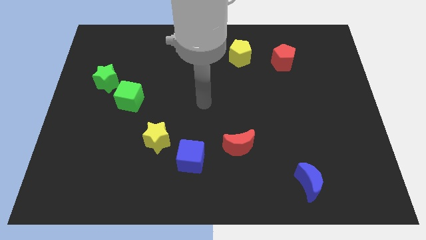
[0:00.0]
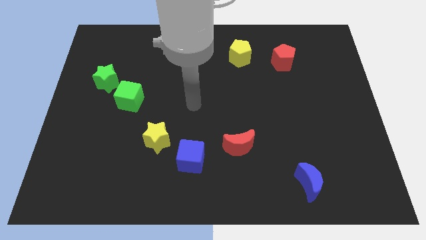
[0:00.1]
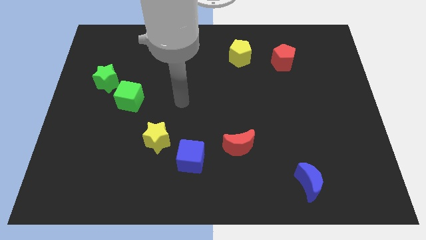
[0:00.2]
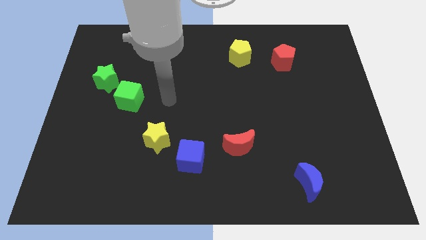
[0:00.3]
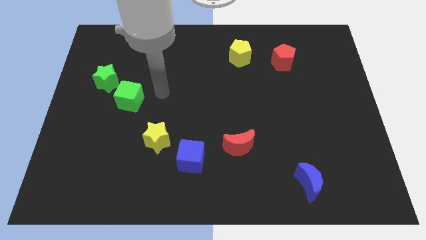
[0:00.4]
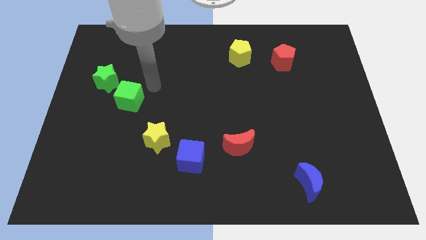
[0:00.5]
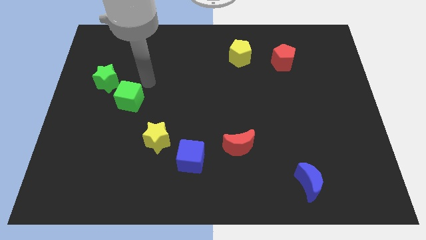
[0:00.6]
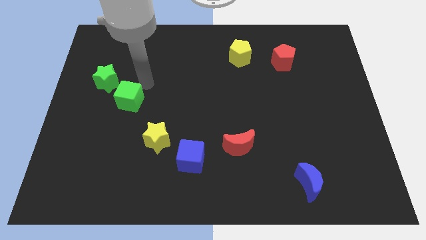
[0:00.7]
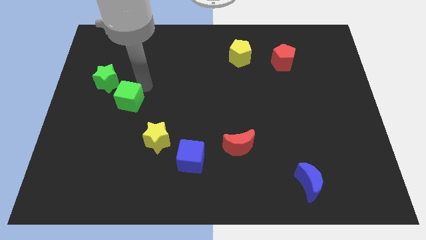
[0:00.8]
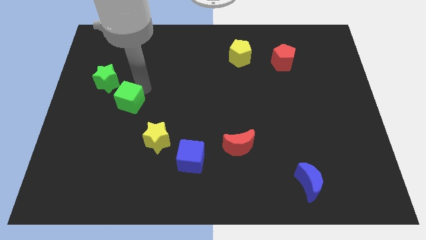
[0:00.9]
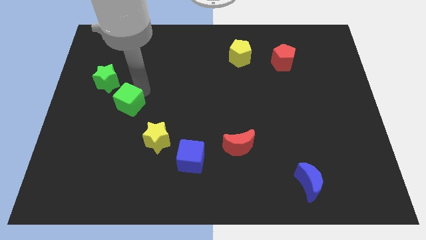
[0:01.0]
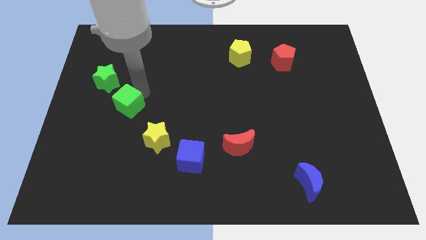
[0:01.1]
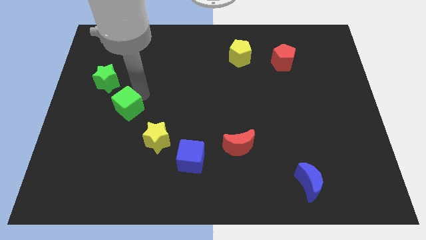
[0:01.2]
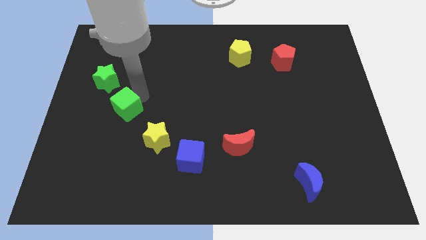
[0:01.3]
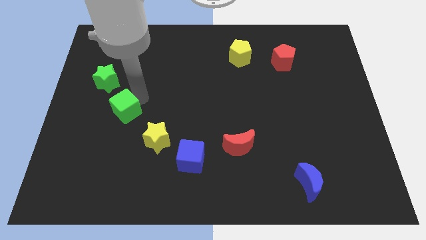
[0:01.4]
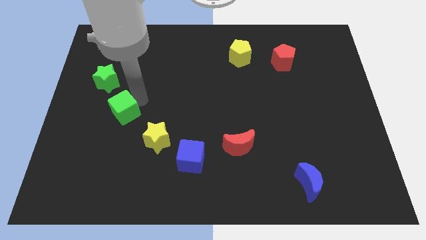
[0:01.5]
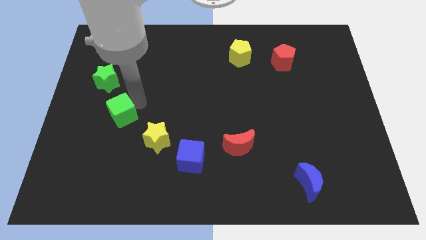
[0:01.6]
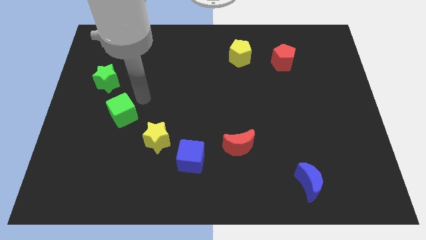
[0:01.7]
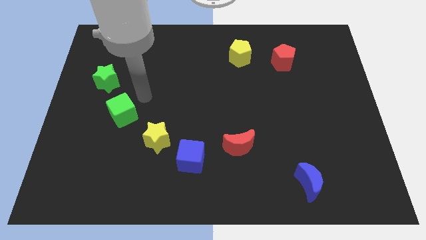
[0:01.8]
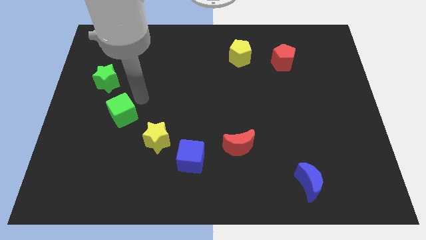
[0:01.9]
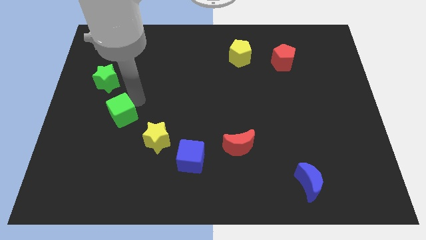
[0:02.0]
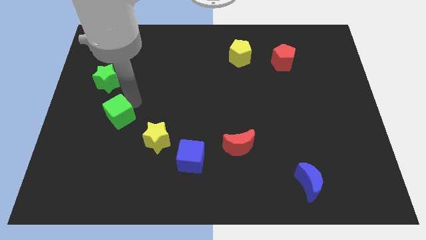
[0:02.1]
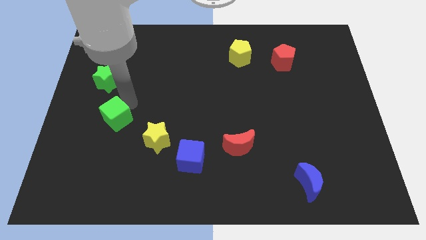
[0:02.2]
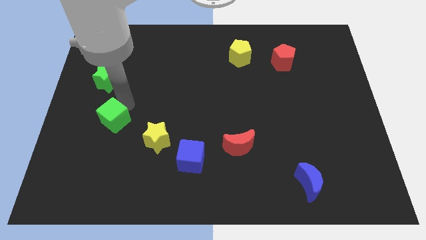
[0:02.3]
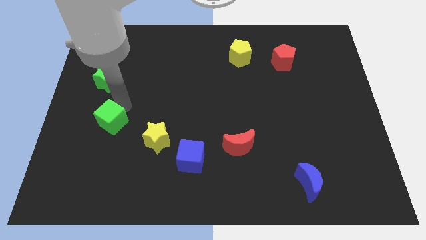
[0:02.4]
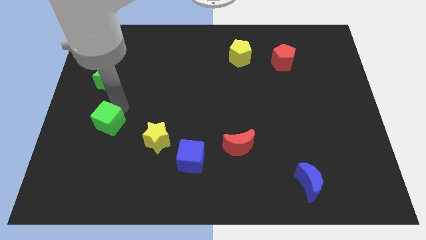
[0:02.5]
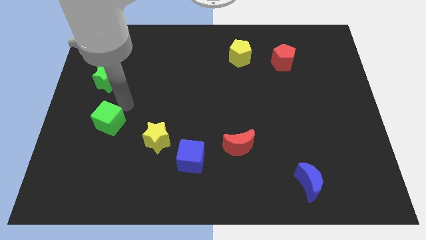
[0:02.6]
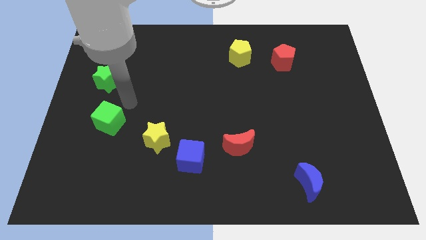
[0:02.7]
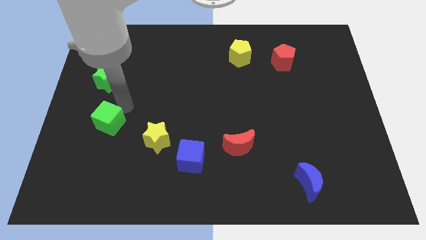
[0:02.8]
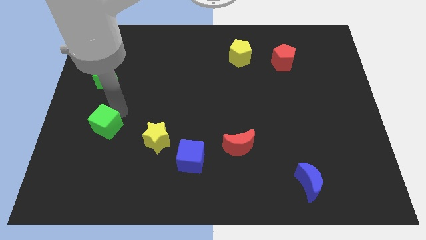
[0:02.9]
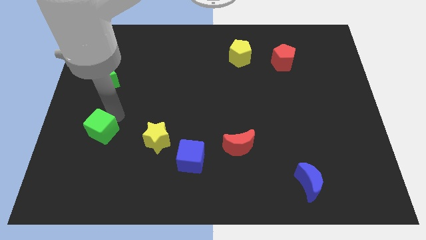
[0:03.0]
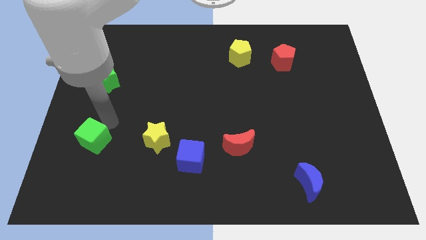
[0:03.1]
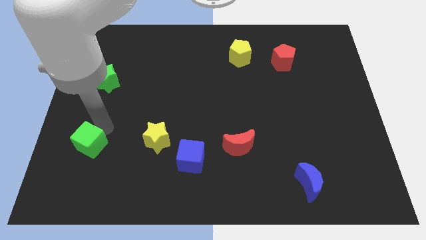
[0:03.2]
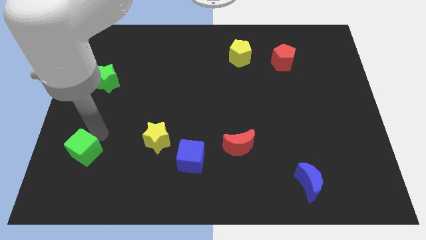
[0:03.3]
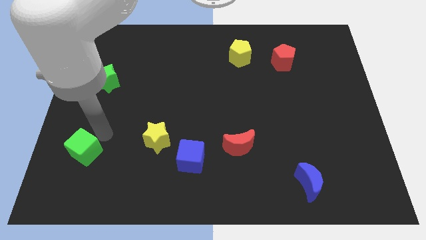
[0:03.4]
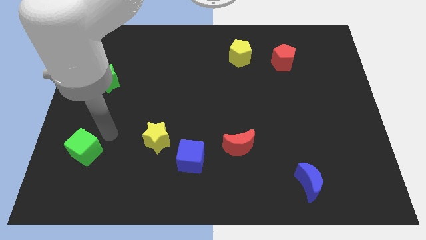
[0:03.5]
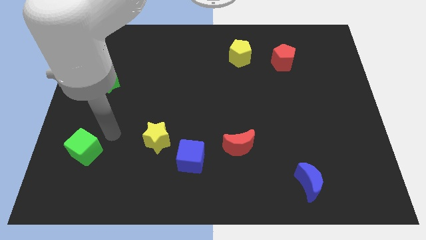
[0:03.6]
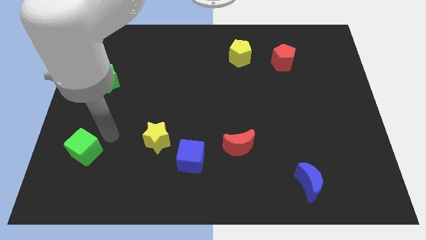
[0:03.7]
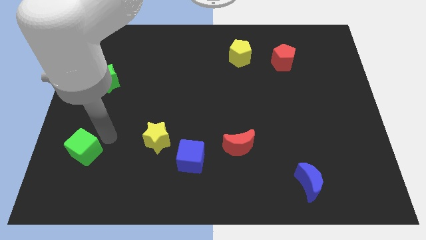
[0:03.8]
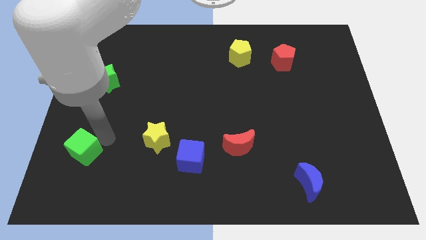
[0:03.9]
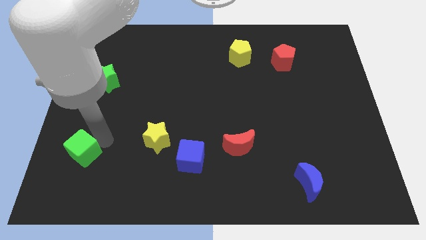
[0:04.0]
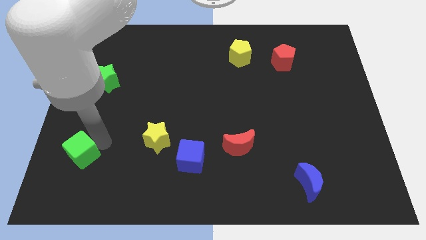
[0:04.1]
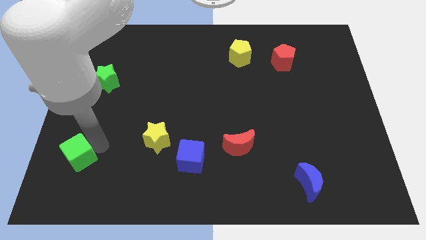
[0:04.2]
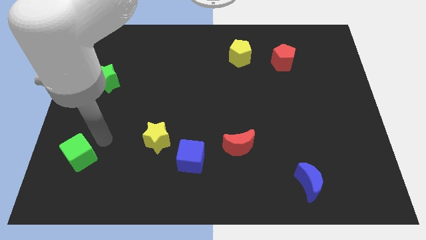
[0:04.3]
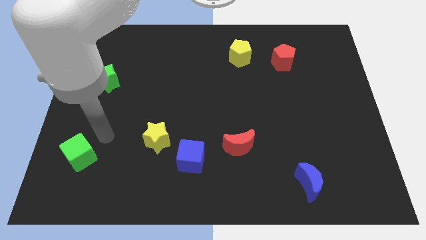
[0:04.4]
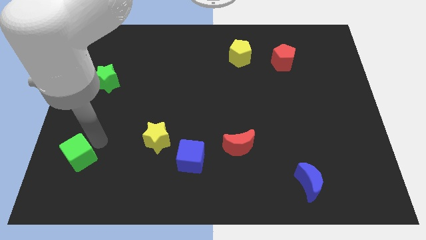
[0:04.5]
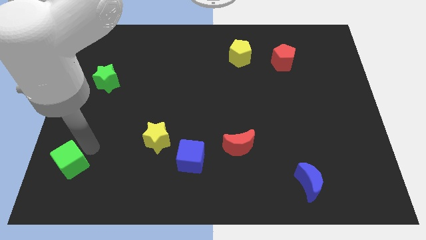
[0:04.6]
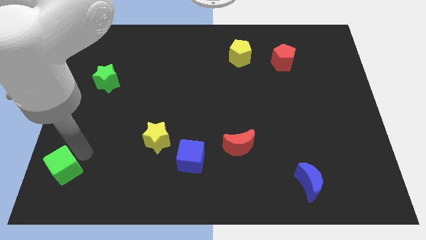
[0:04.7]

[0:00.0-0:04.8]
push the green cube to the bottom left corner

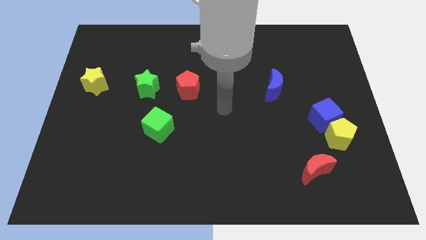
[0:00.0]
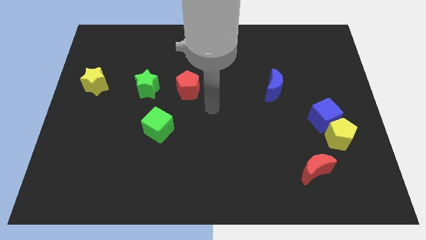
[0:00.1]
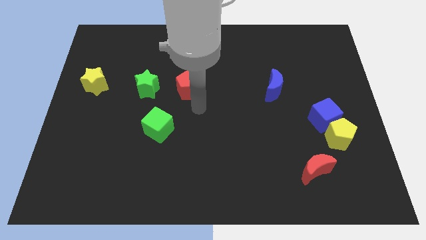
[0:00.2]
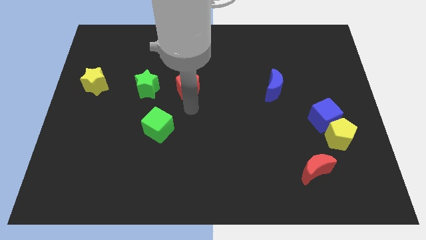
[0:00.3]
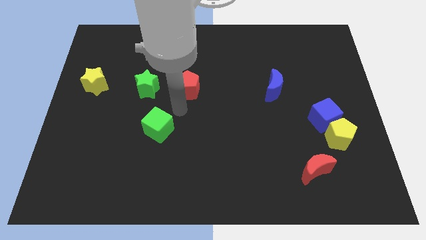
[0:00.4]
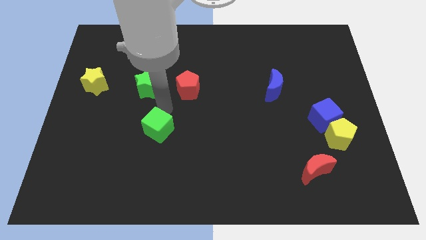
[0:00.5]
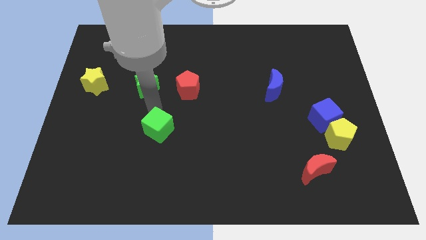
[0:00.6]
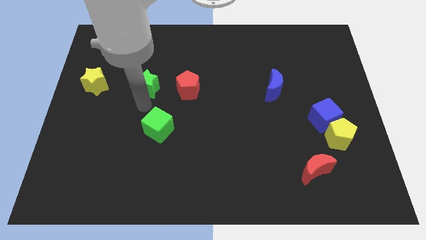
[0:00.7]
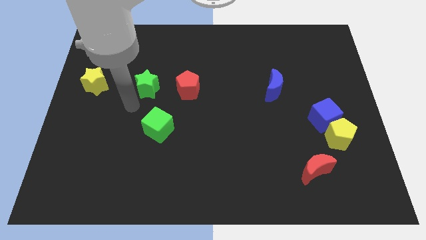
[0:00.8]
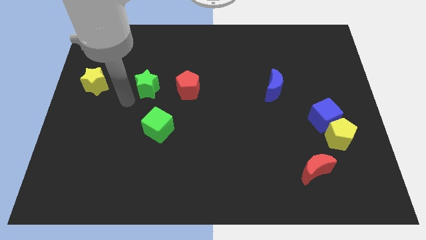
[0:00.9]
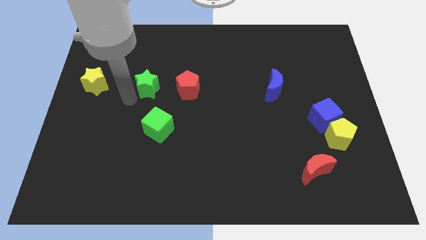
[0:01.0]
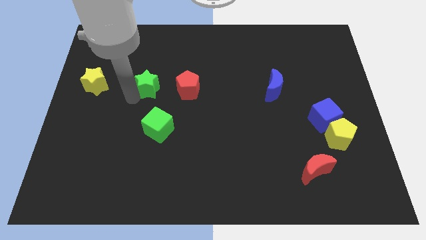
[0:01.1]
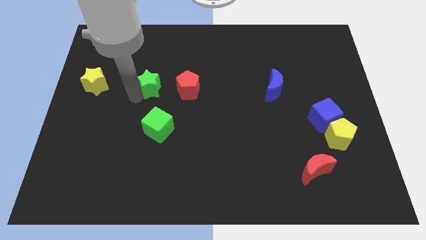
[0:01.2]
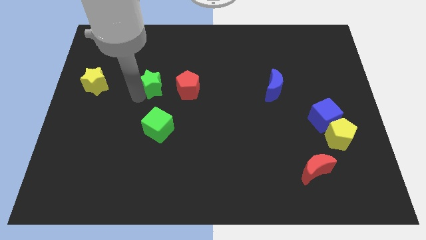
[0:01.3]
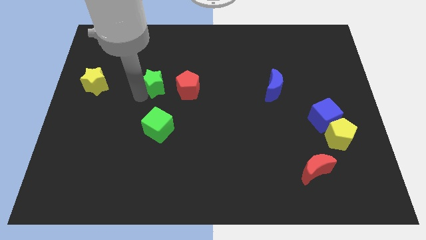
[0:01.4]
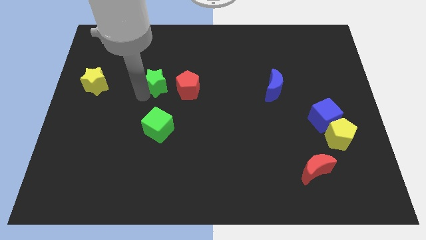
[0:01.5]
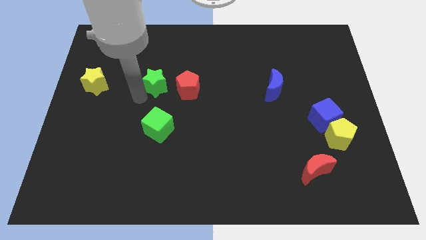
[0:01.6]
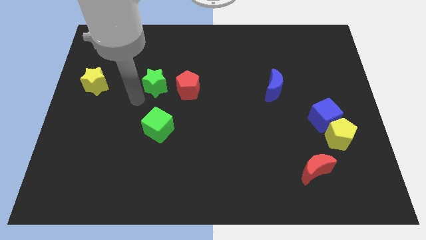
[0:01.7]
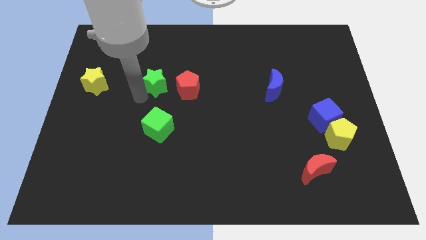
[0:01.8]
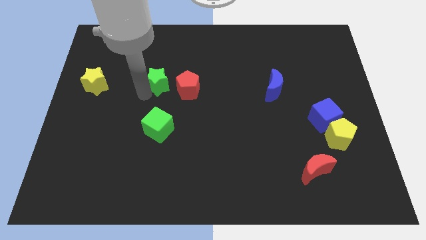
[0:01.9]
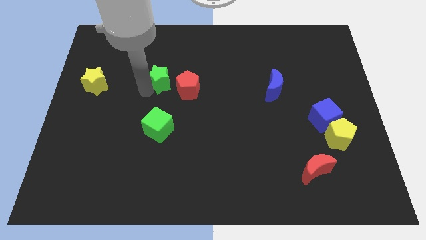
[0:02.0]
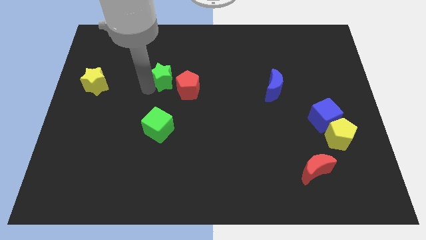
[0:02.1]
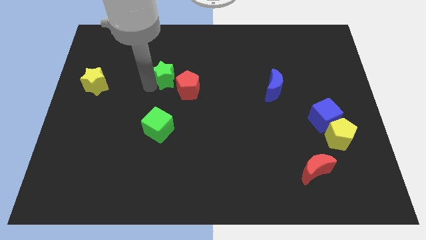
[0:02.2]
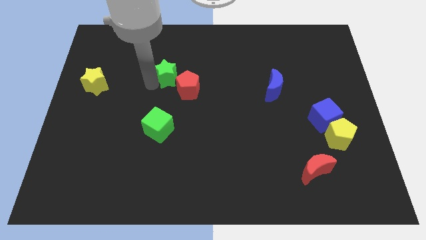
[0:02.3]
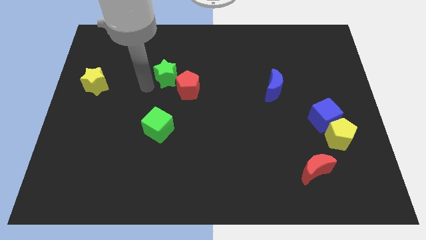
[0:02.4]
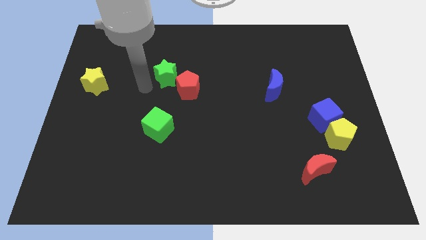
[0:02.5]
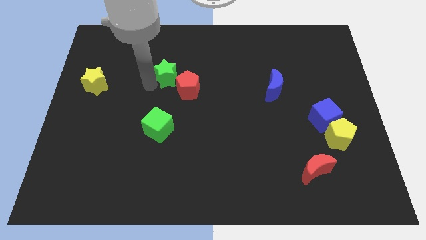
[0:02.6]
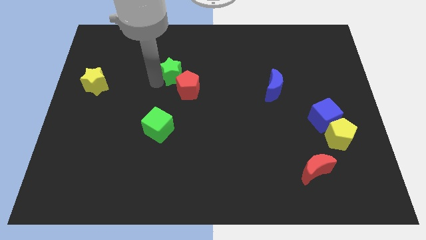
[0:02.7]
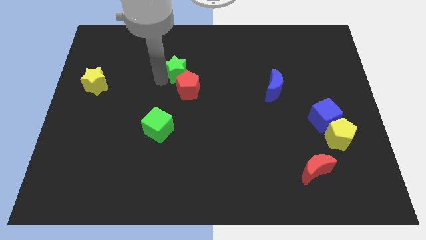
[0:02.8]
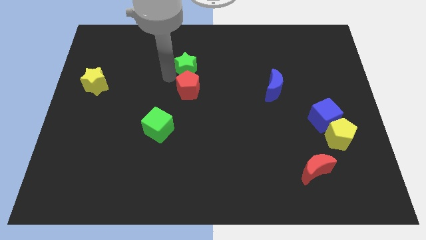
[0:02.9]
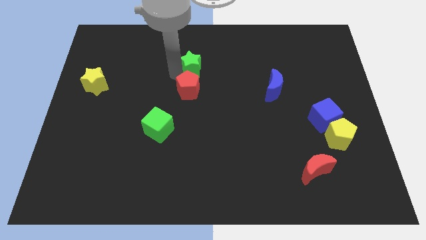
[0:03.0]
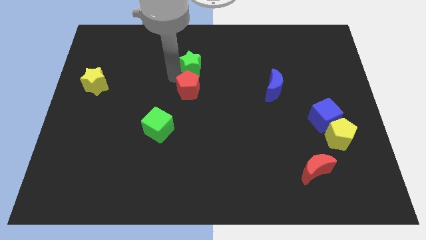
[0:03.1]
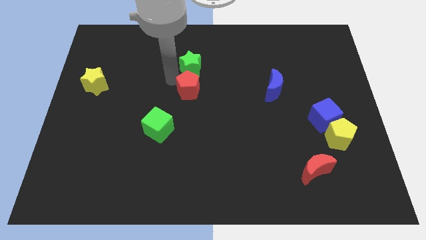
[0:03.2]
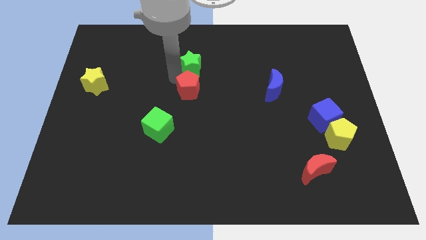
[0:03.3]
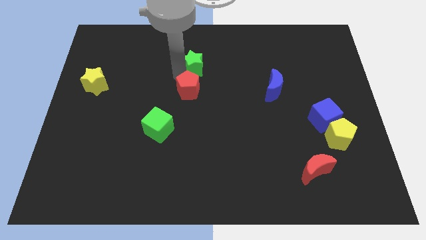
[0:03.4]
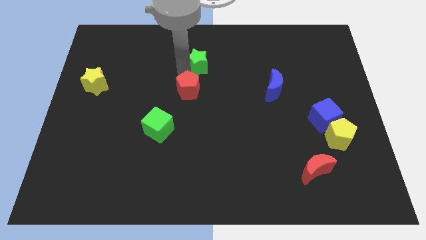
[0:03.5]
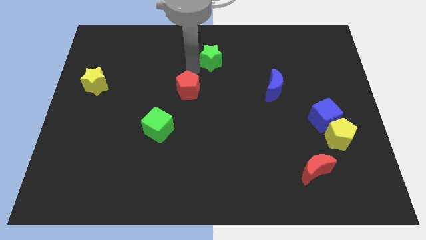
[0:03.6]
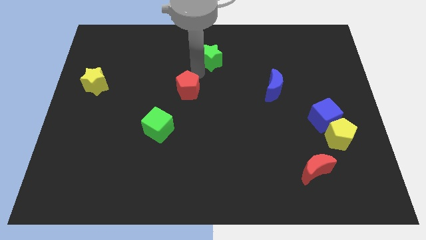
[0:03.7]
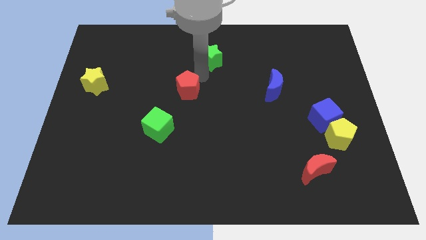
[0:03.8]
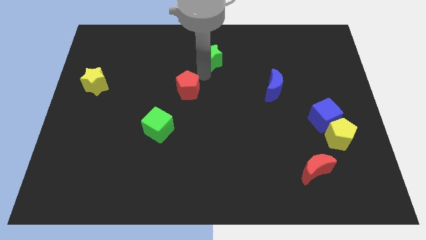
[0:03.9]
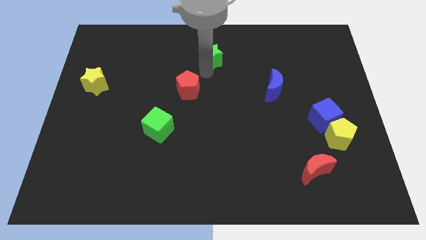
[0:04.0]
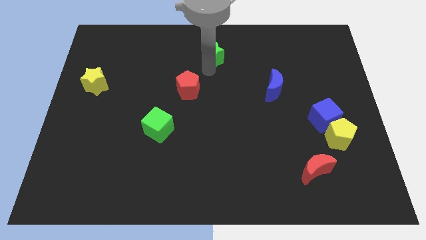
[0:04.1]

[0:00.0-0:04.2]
slide the green star to the top
